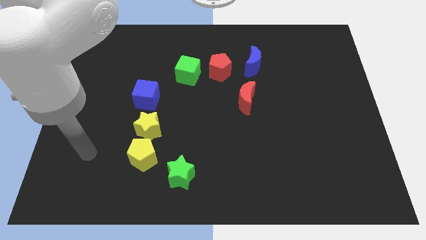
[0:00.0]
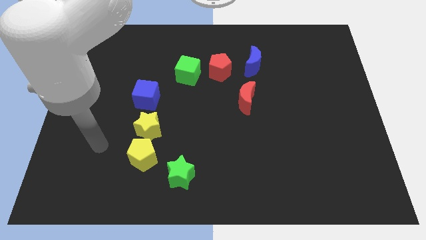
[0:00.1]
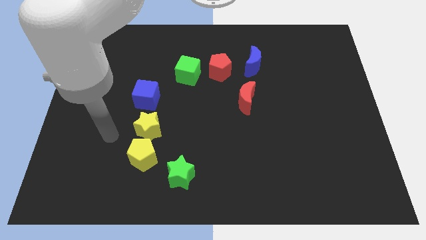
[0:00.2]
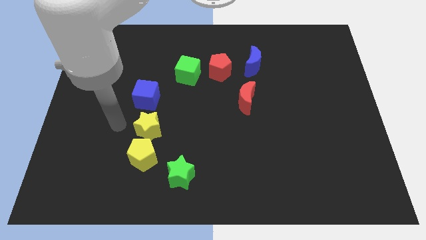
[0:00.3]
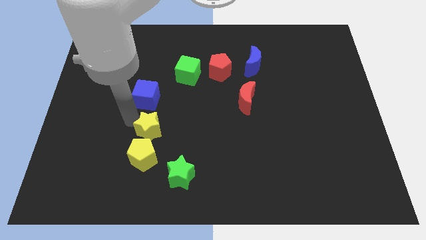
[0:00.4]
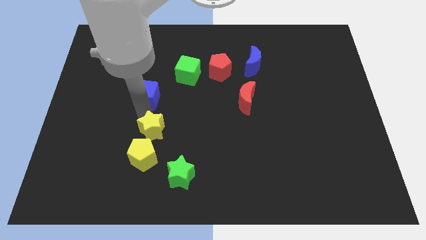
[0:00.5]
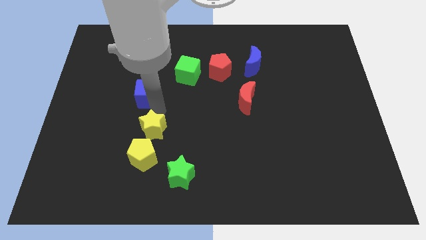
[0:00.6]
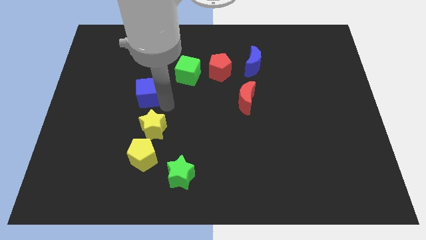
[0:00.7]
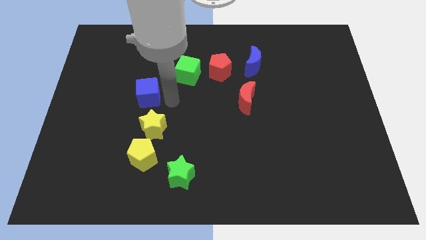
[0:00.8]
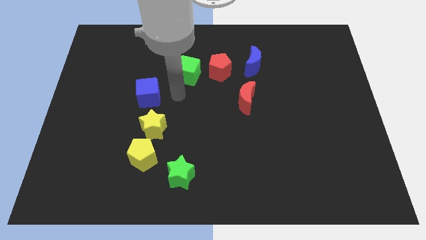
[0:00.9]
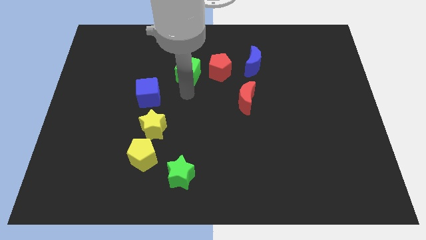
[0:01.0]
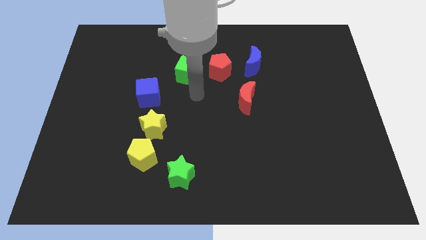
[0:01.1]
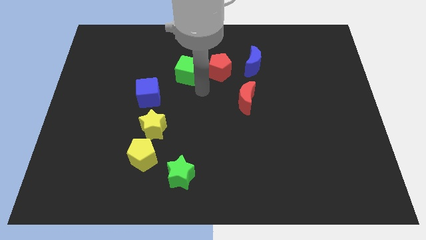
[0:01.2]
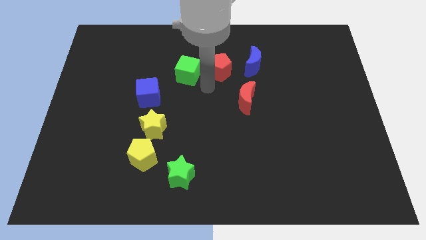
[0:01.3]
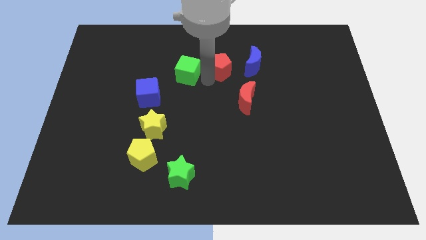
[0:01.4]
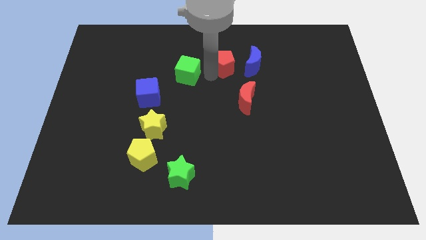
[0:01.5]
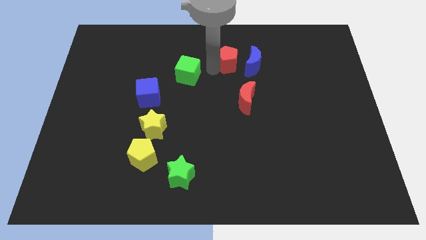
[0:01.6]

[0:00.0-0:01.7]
separate the green cube from the red pentagon

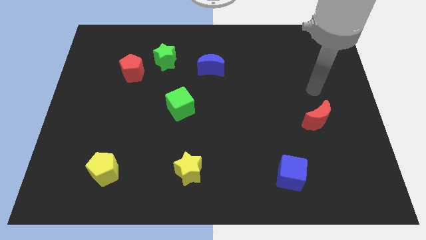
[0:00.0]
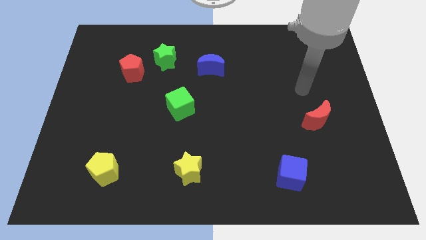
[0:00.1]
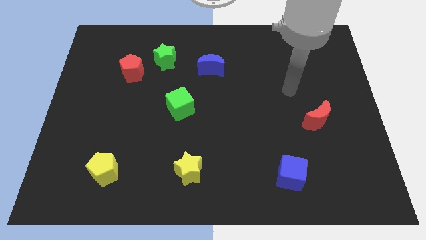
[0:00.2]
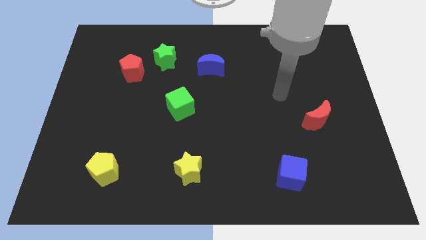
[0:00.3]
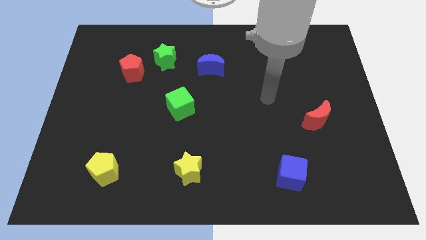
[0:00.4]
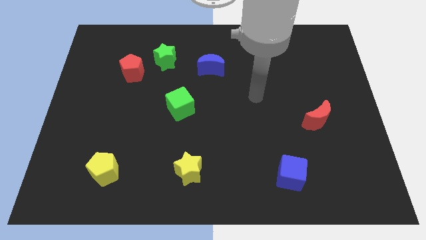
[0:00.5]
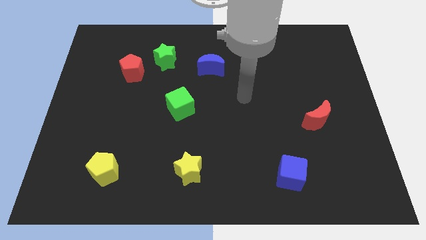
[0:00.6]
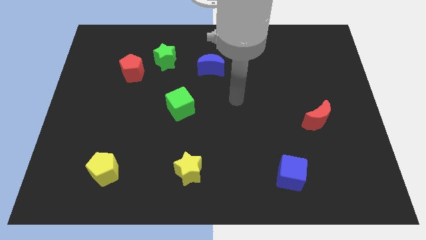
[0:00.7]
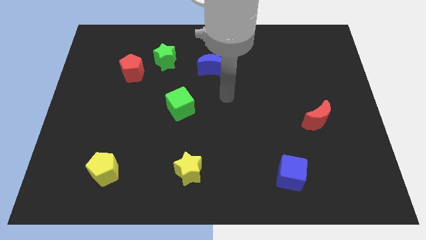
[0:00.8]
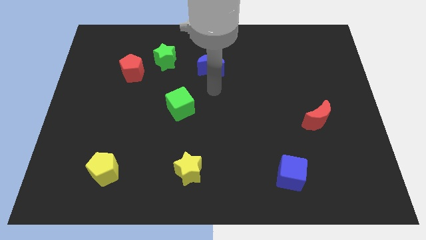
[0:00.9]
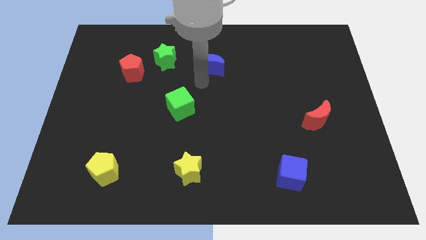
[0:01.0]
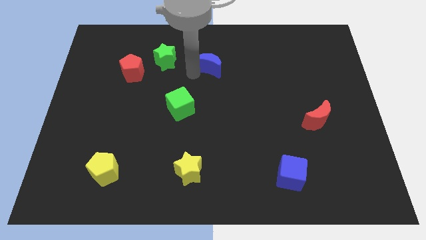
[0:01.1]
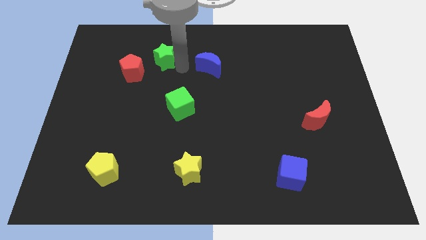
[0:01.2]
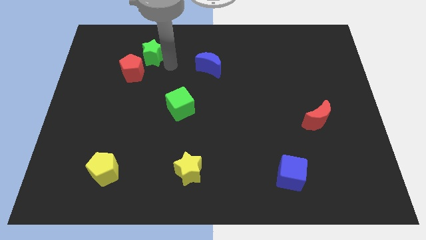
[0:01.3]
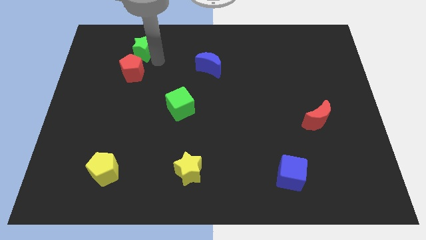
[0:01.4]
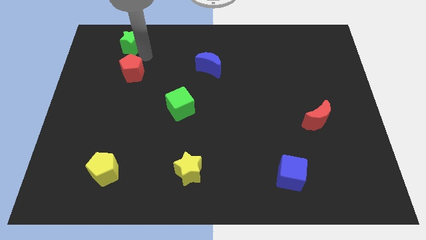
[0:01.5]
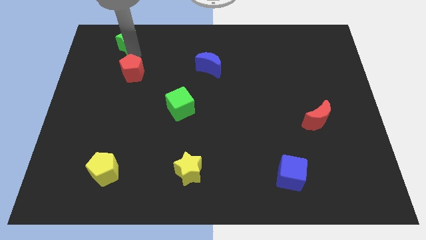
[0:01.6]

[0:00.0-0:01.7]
pull the red pentagon apart from the green star

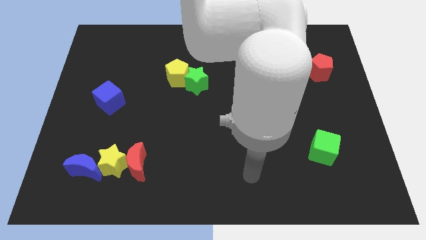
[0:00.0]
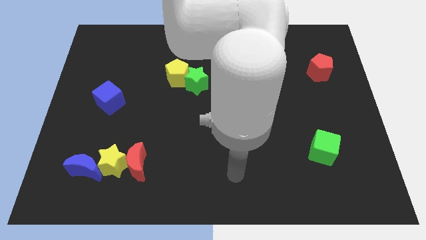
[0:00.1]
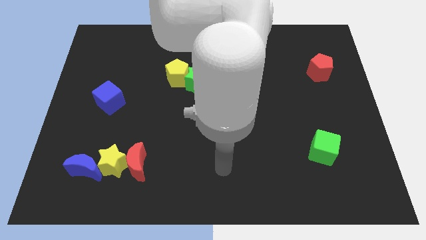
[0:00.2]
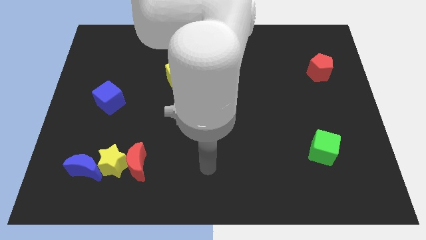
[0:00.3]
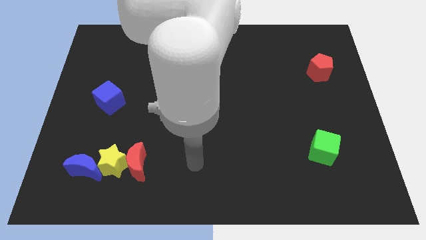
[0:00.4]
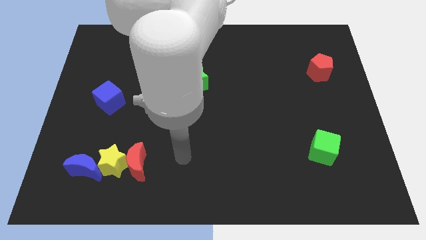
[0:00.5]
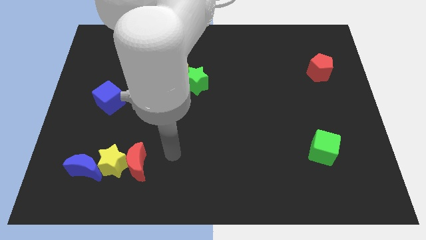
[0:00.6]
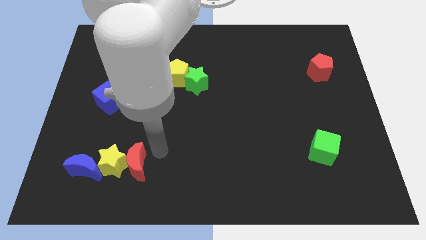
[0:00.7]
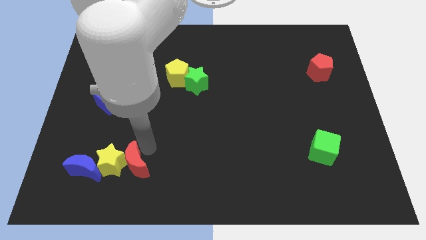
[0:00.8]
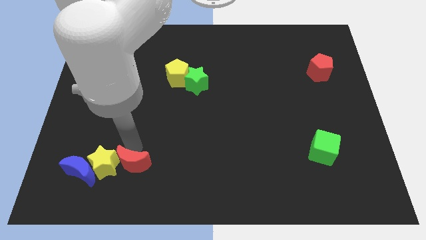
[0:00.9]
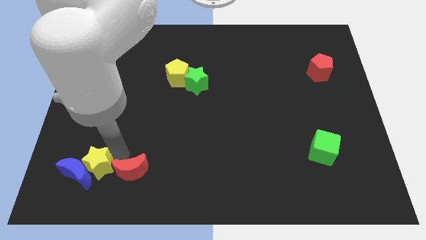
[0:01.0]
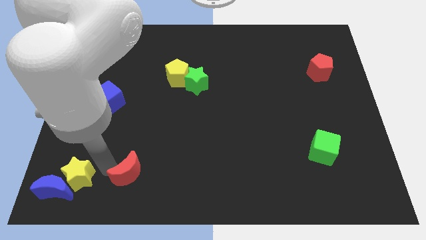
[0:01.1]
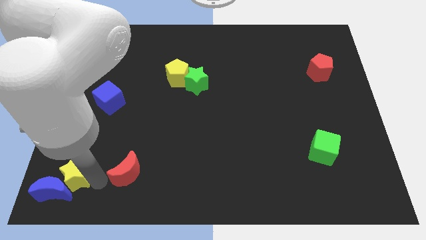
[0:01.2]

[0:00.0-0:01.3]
pull the red moon apart from the yellow star

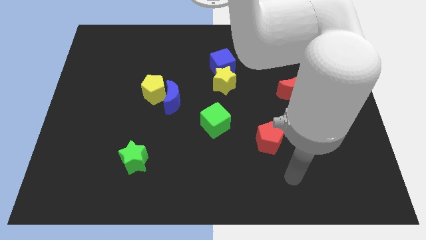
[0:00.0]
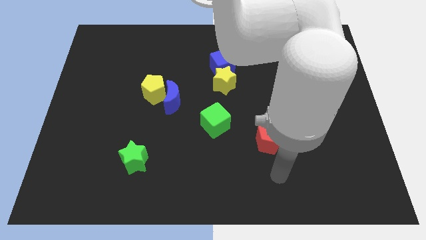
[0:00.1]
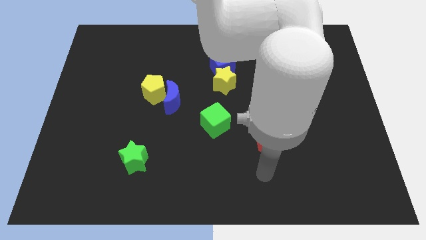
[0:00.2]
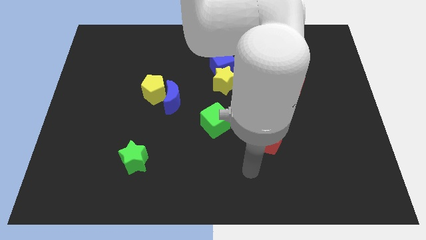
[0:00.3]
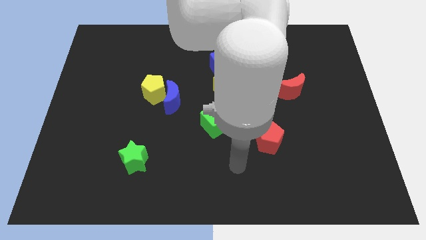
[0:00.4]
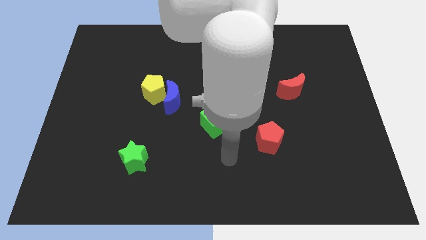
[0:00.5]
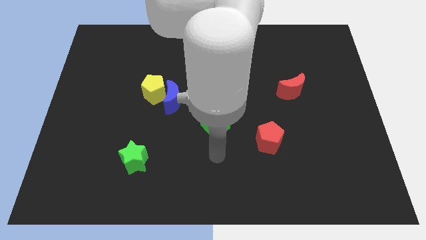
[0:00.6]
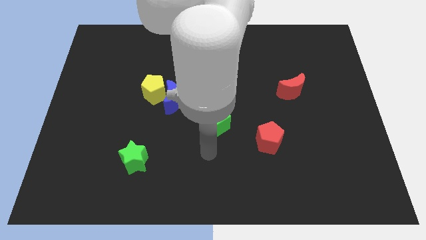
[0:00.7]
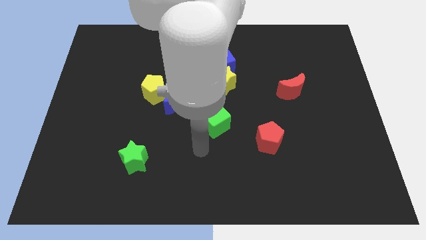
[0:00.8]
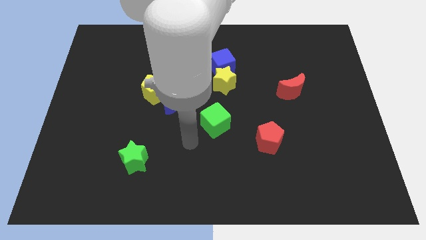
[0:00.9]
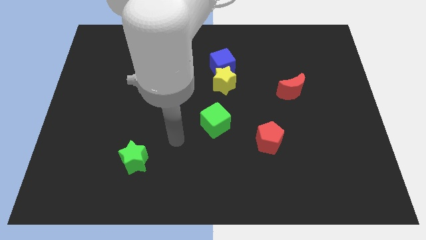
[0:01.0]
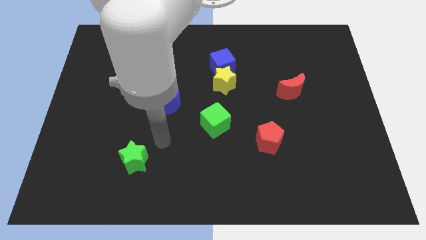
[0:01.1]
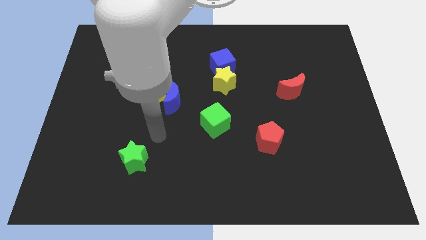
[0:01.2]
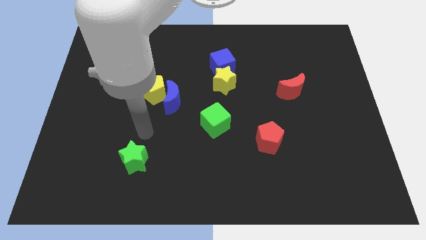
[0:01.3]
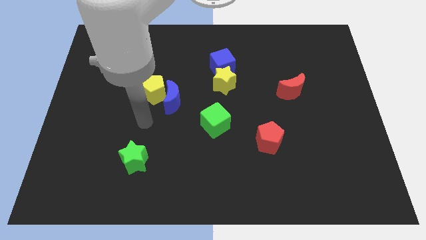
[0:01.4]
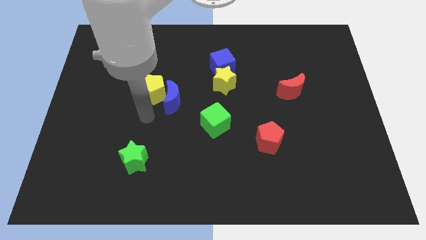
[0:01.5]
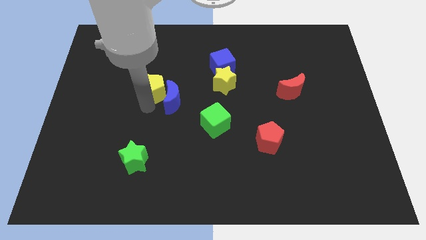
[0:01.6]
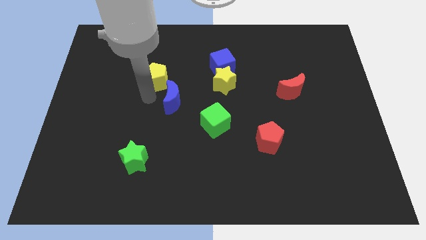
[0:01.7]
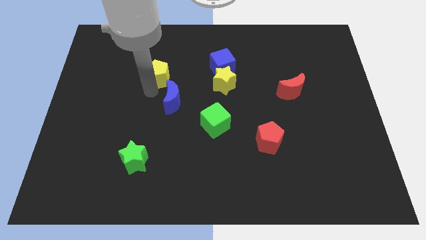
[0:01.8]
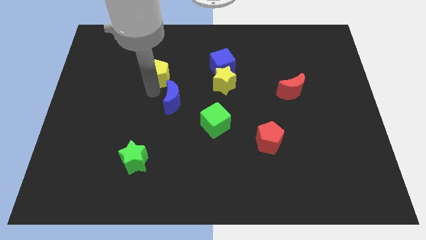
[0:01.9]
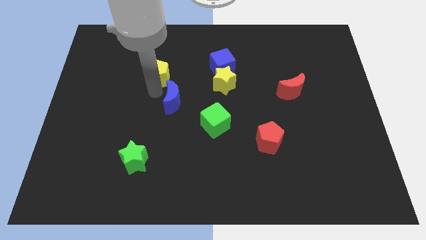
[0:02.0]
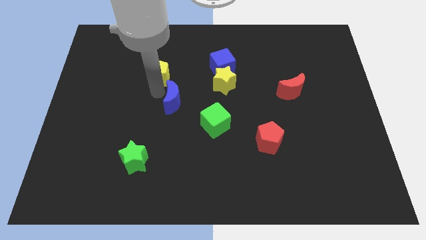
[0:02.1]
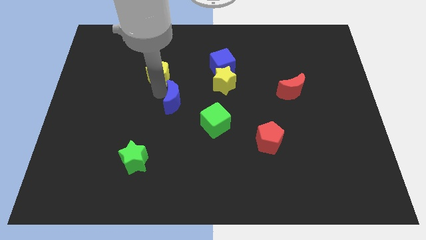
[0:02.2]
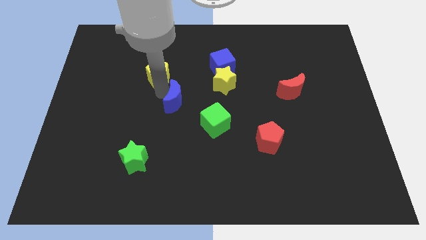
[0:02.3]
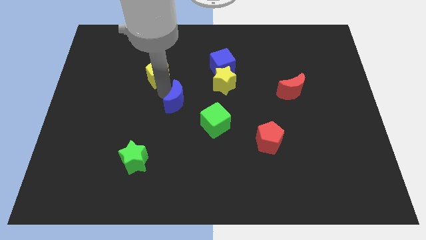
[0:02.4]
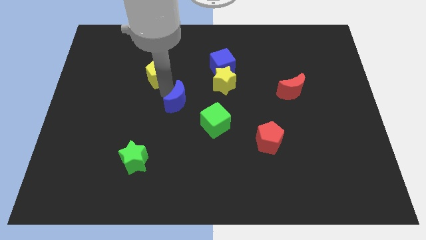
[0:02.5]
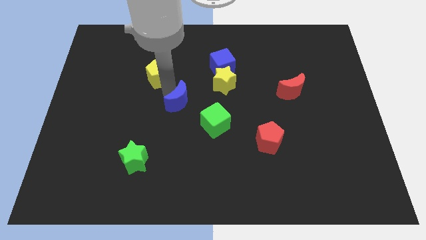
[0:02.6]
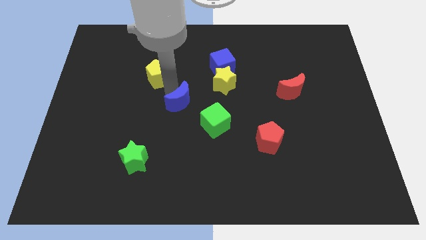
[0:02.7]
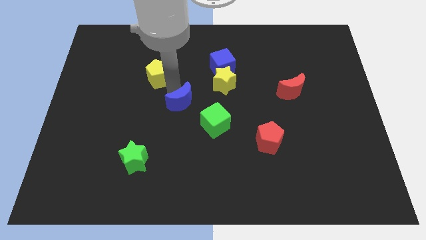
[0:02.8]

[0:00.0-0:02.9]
pull the blue moon apart from the yellow pentagon

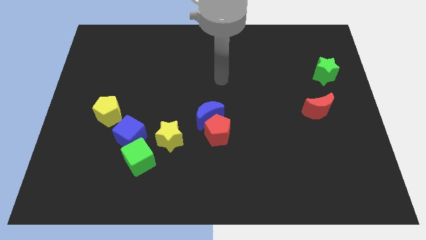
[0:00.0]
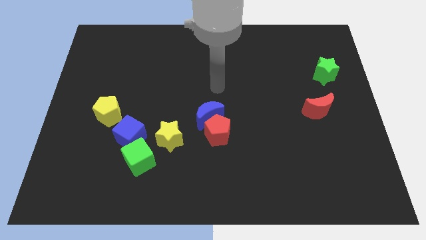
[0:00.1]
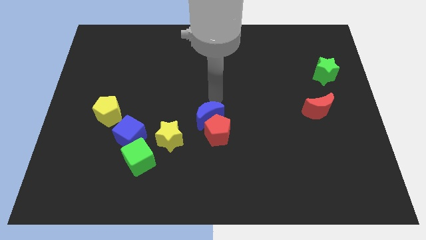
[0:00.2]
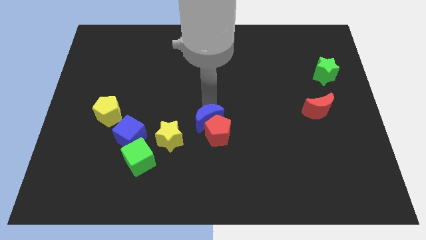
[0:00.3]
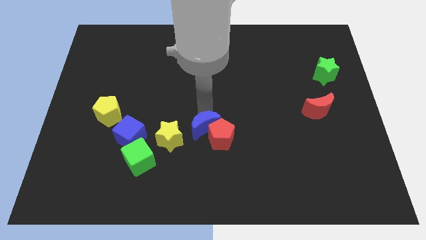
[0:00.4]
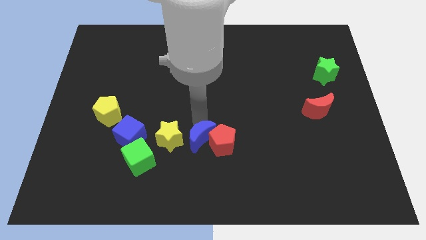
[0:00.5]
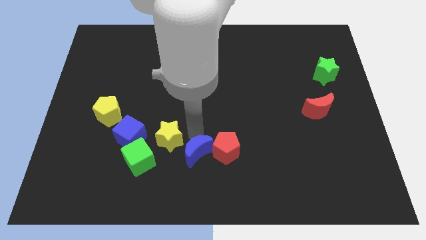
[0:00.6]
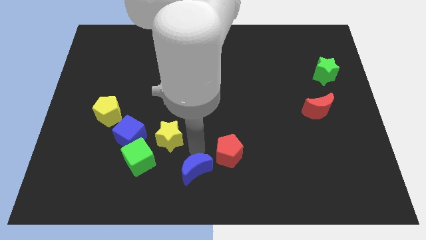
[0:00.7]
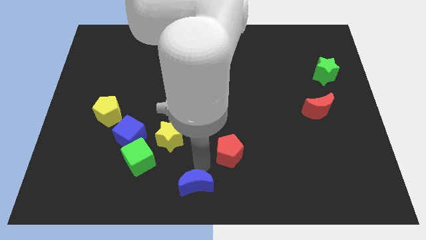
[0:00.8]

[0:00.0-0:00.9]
move the red pentagon away from the blue moon

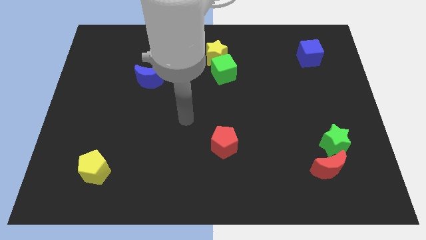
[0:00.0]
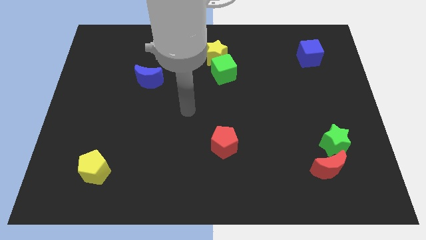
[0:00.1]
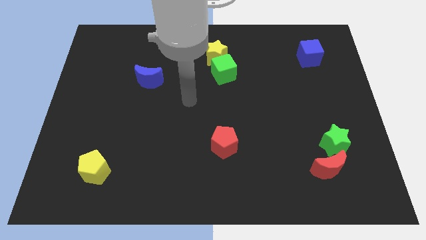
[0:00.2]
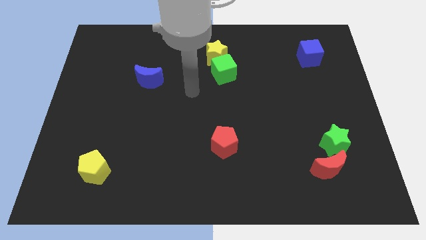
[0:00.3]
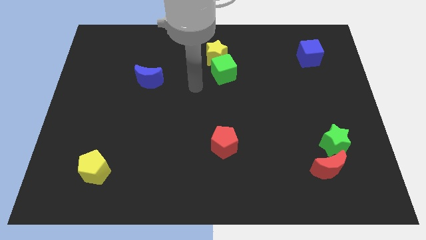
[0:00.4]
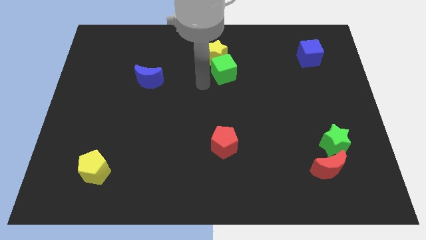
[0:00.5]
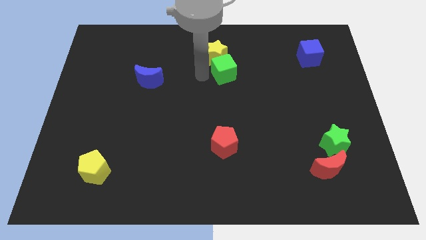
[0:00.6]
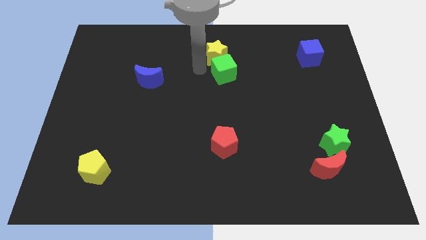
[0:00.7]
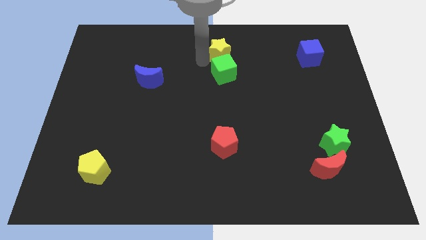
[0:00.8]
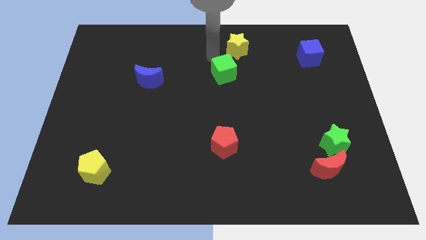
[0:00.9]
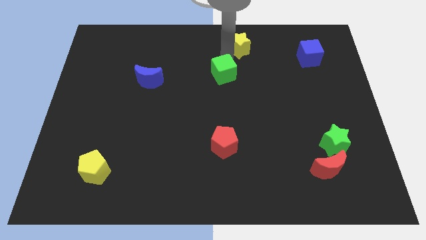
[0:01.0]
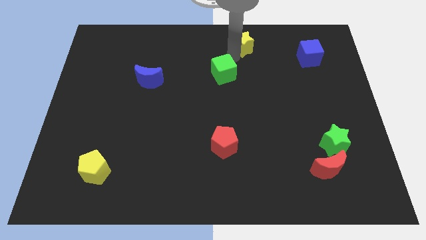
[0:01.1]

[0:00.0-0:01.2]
separate the green cube from the yellow star
